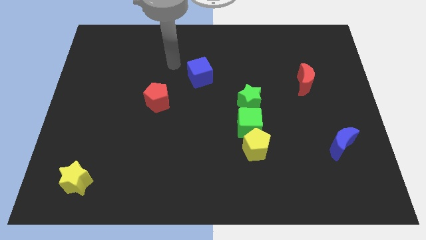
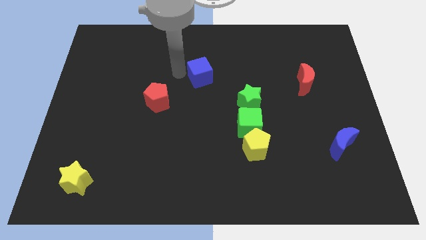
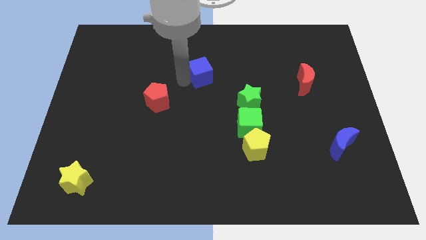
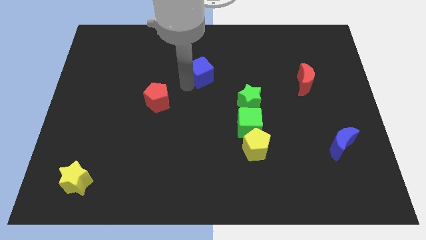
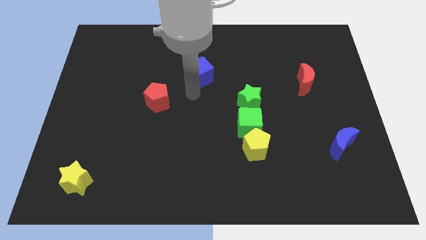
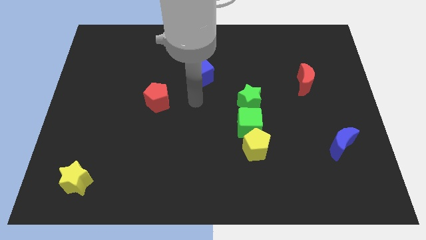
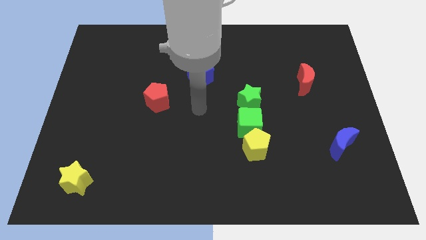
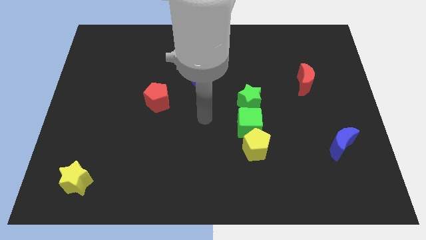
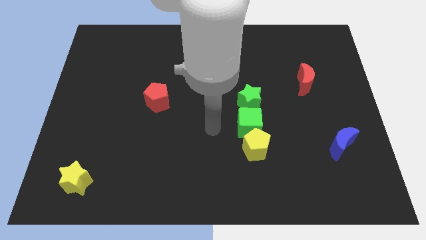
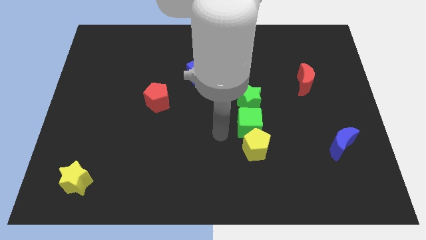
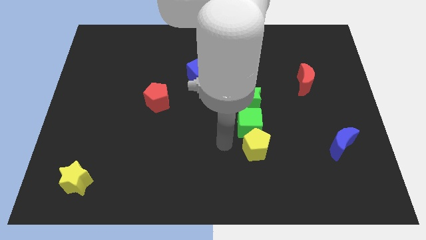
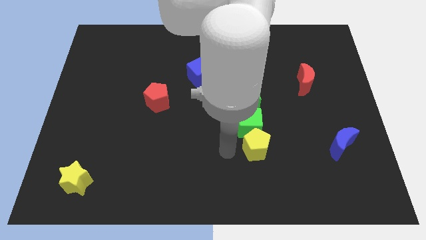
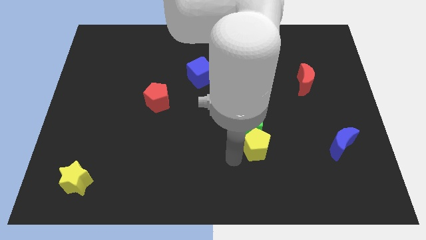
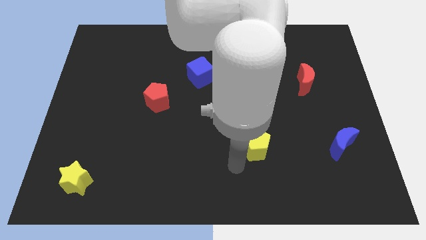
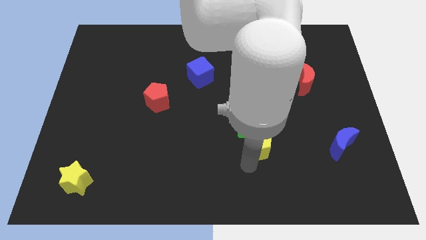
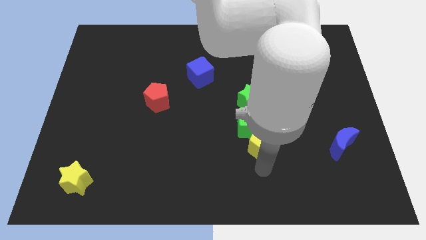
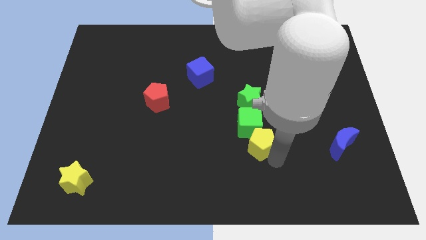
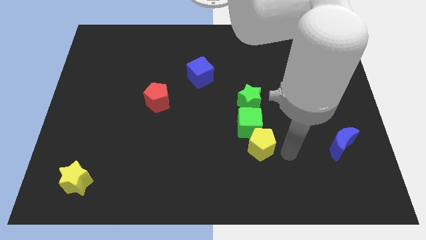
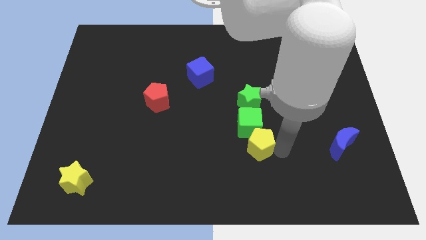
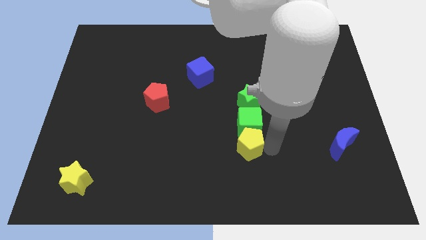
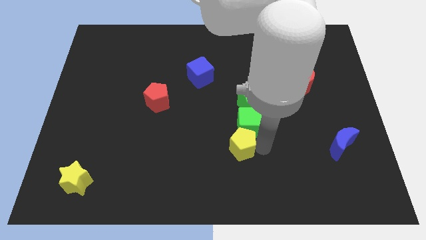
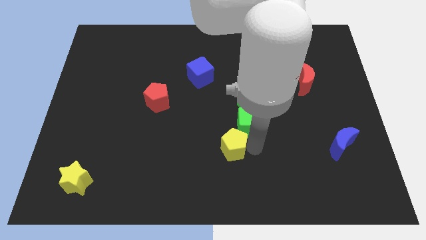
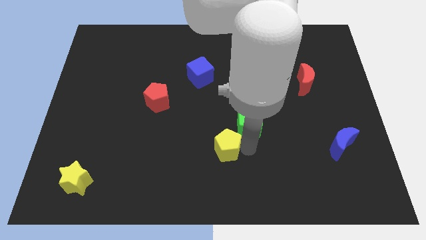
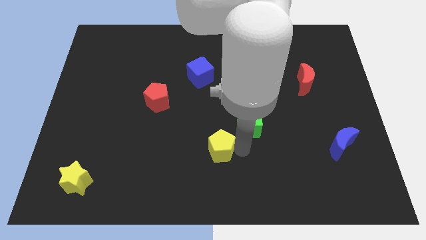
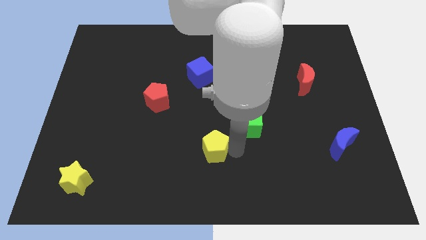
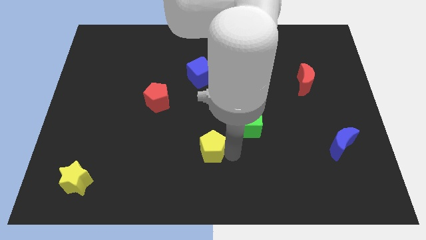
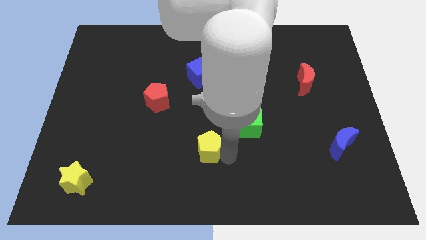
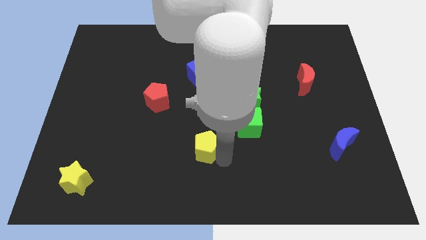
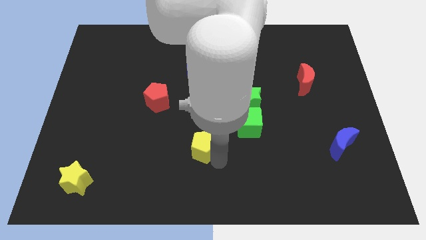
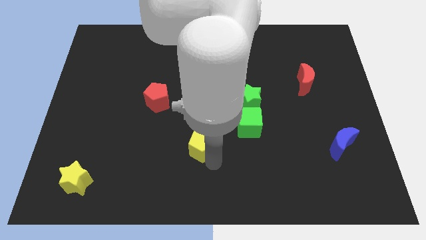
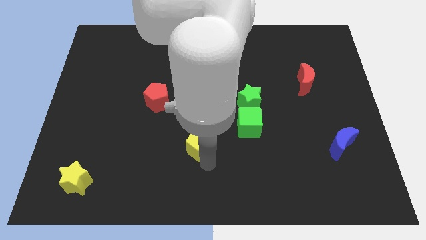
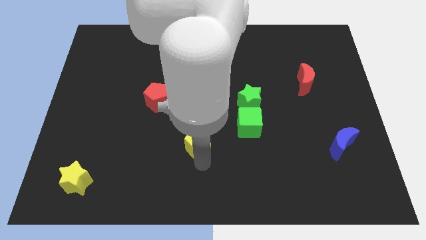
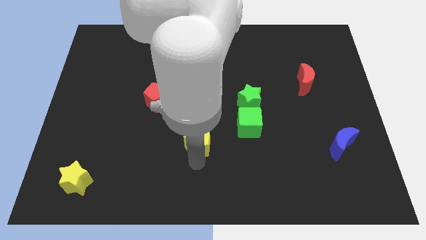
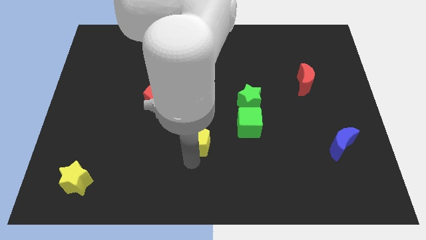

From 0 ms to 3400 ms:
move the yellow pentagon up and left a bit

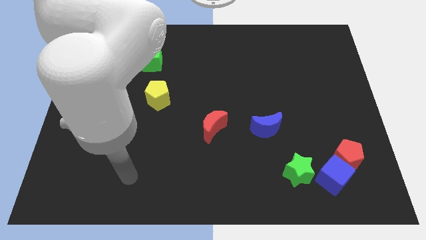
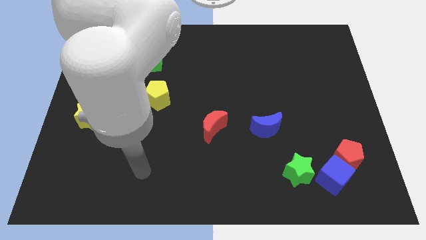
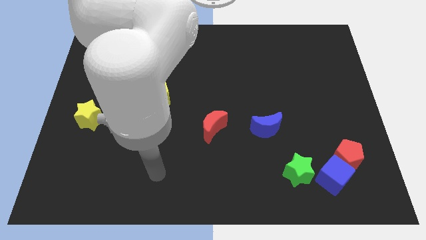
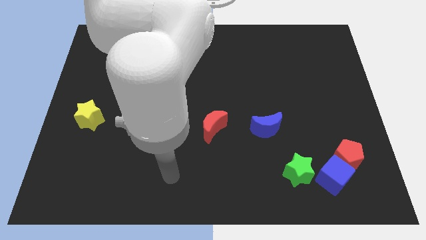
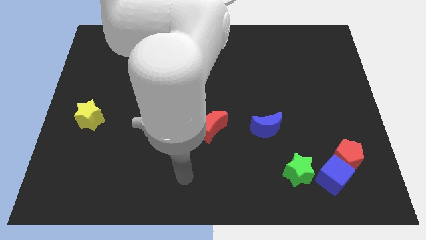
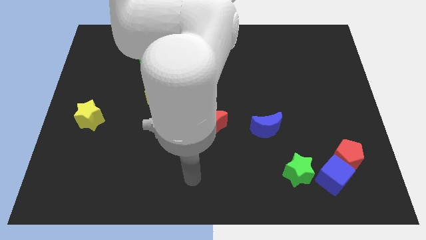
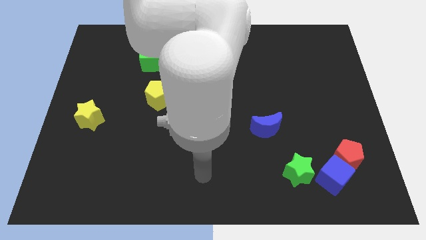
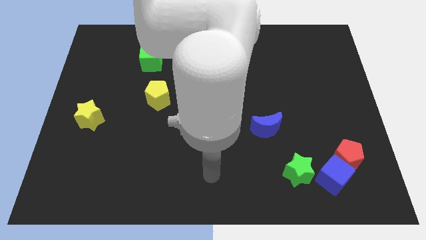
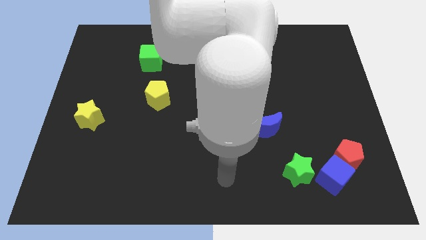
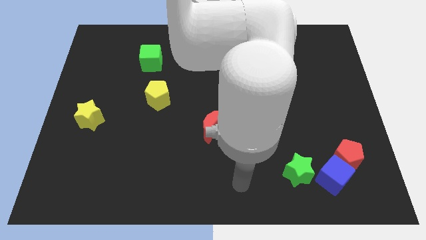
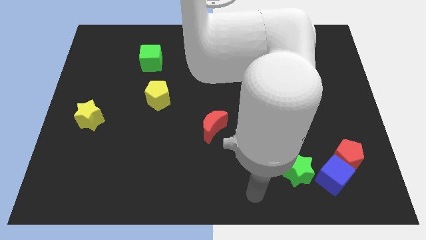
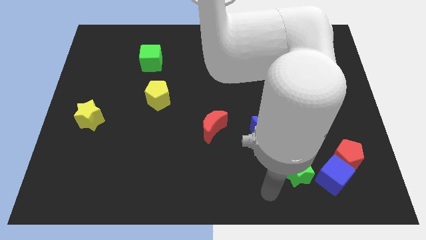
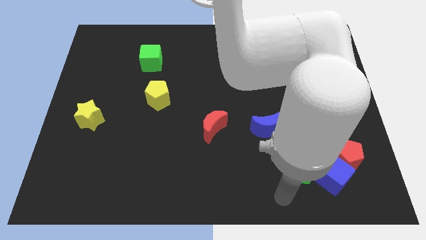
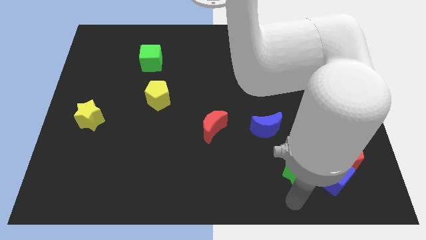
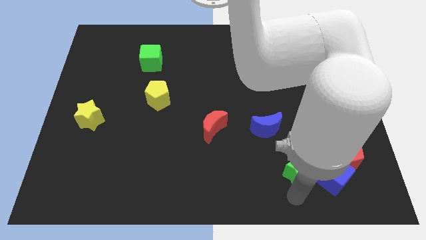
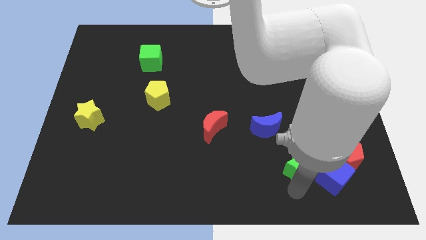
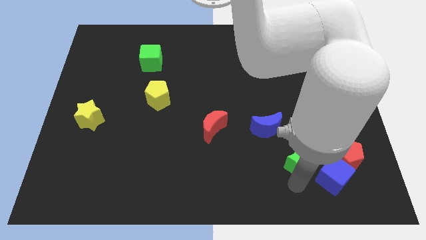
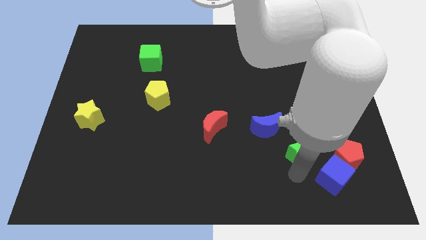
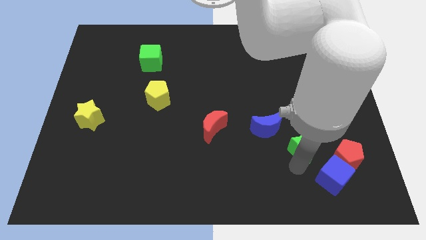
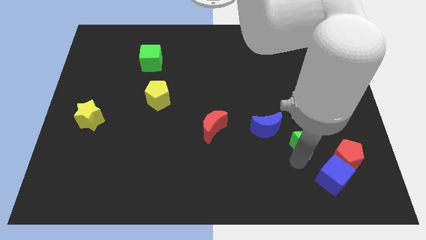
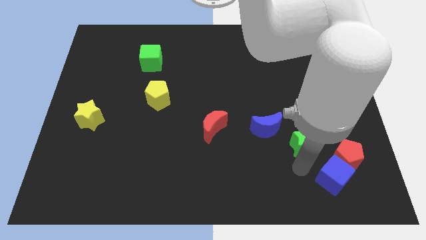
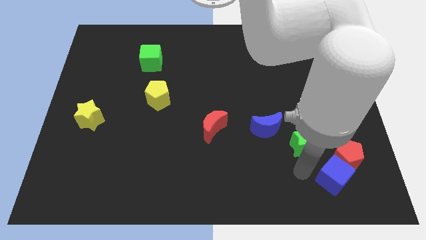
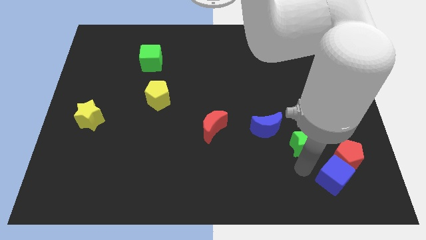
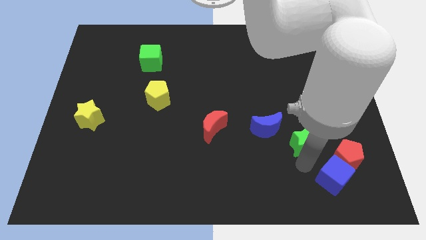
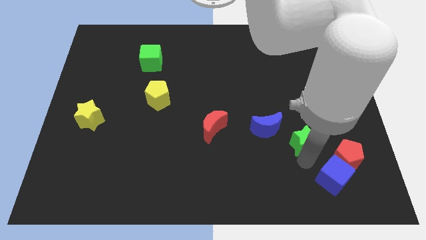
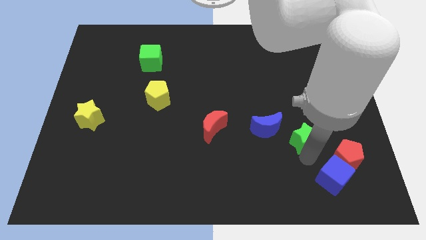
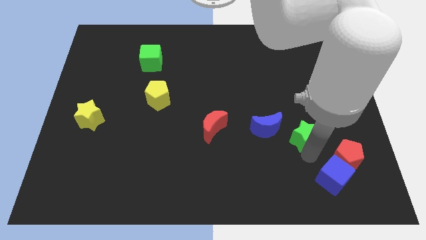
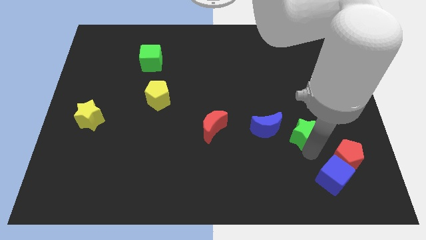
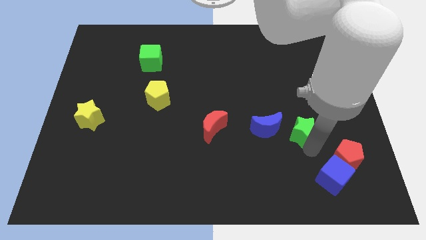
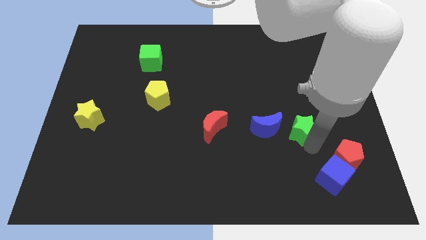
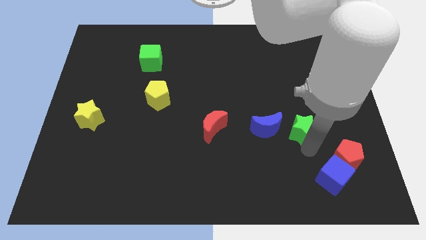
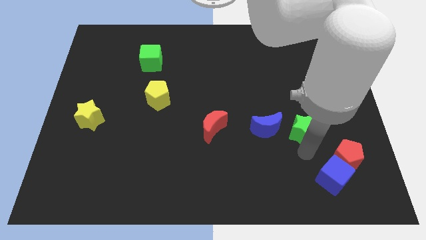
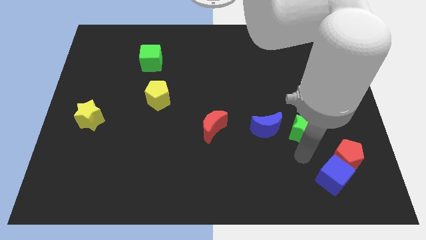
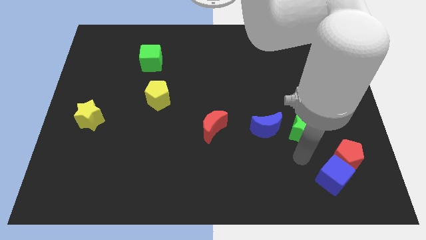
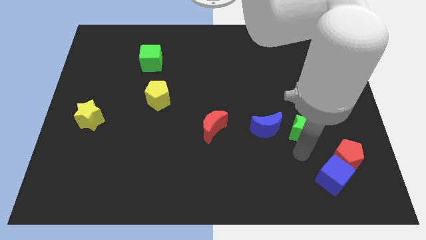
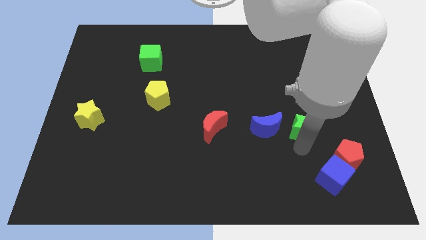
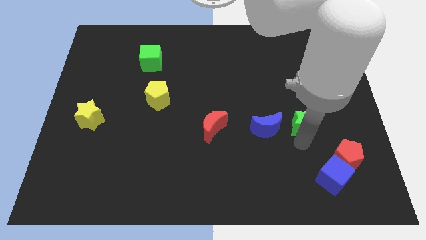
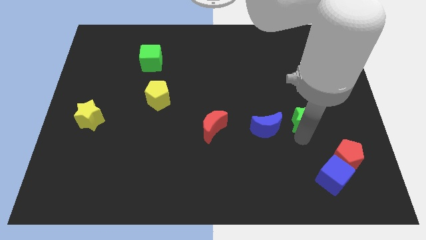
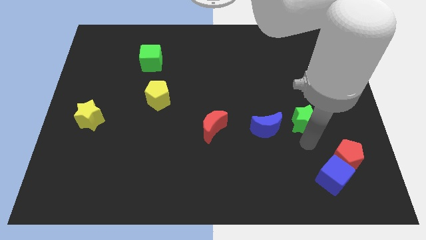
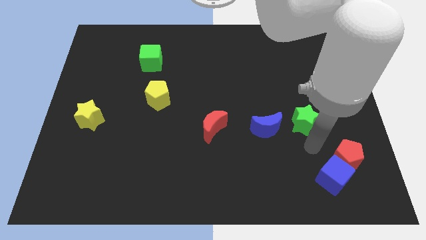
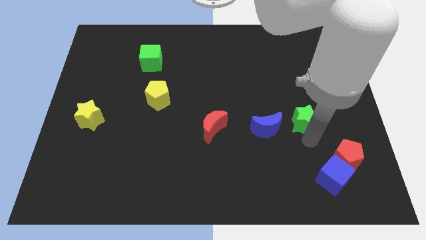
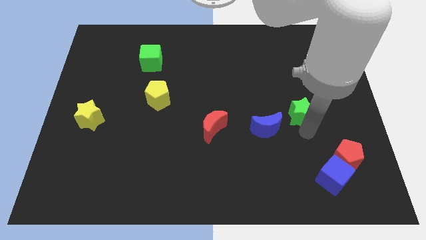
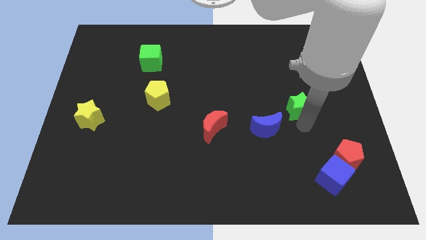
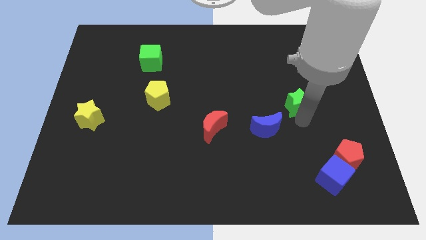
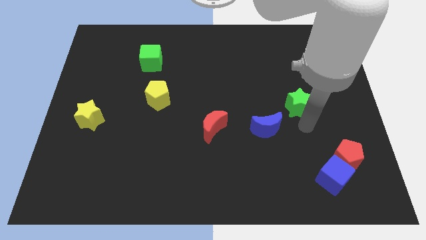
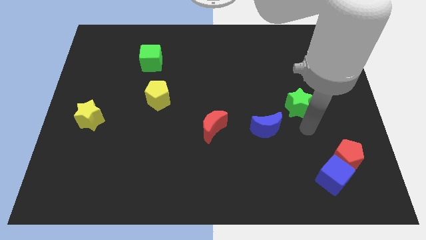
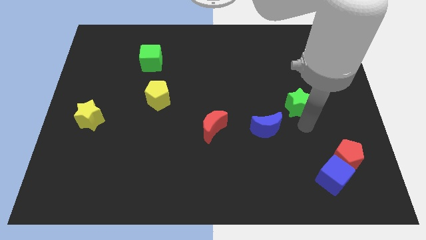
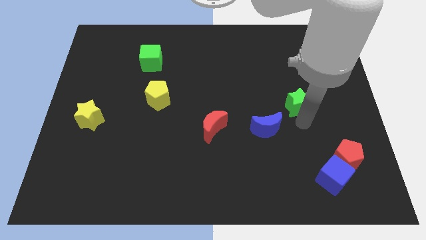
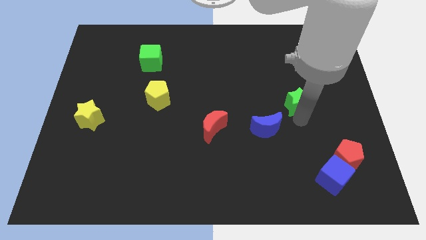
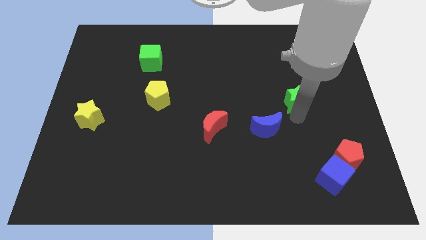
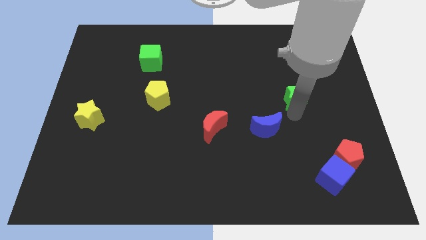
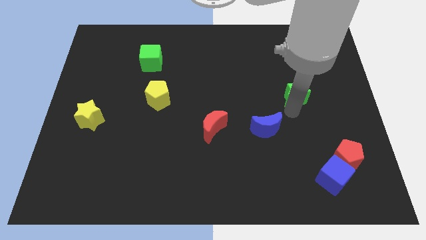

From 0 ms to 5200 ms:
slide the green star upwards
